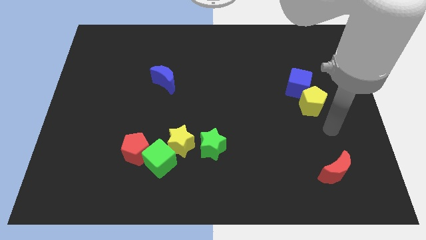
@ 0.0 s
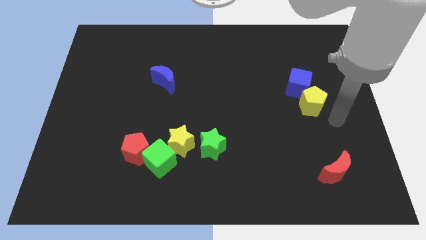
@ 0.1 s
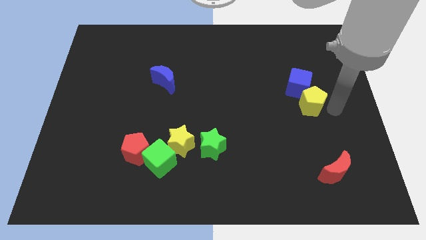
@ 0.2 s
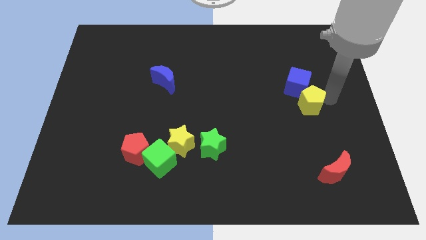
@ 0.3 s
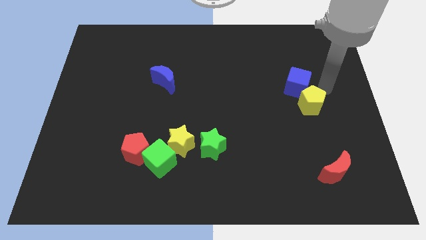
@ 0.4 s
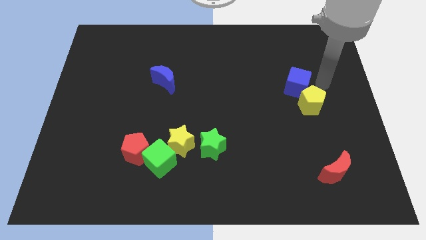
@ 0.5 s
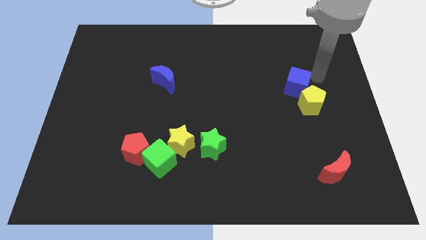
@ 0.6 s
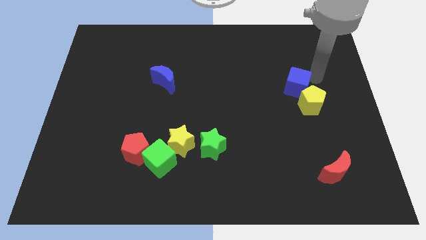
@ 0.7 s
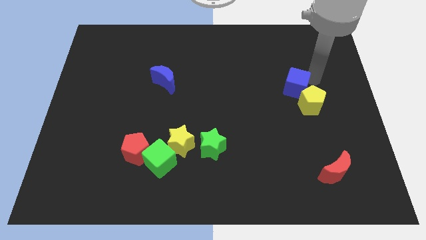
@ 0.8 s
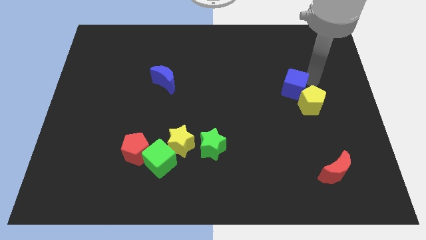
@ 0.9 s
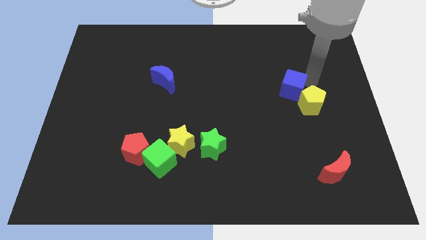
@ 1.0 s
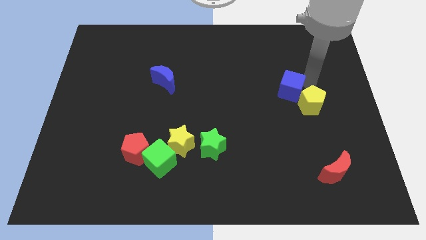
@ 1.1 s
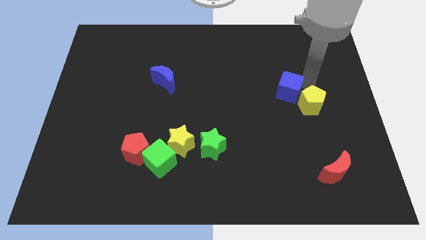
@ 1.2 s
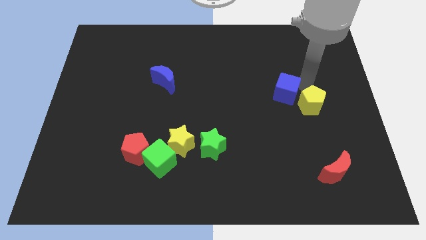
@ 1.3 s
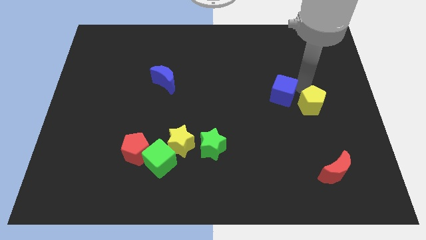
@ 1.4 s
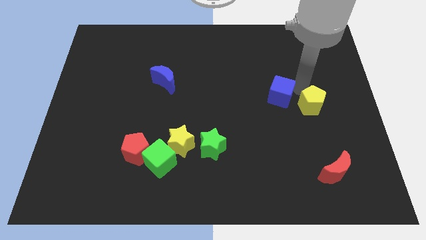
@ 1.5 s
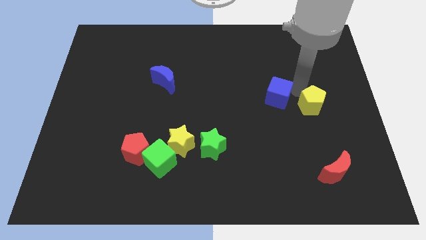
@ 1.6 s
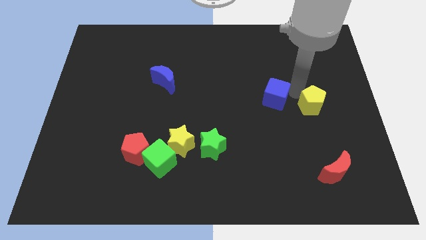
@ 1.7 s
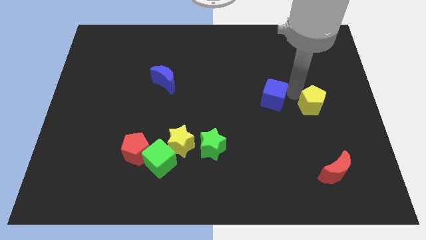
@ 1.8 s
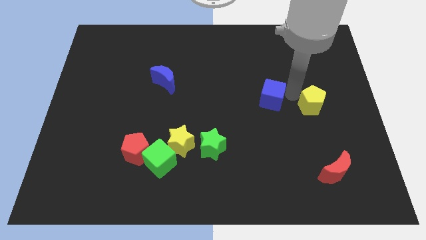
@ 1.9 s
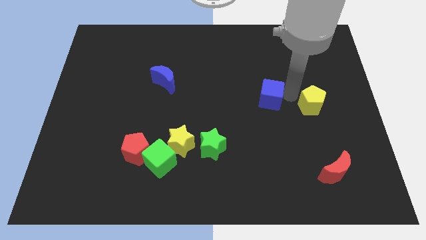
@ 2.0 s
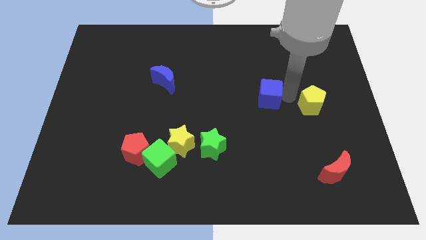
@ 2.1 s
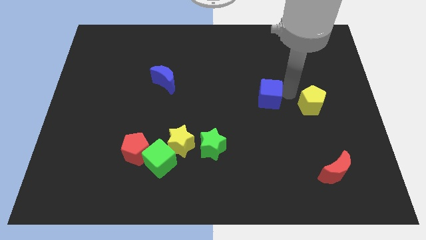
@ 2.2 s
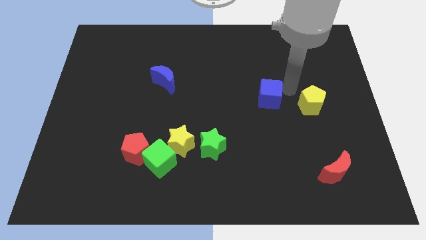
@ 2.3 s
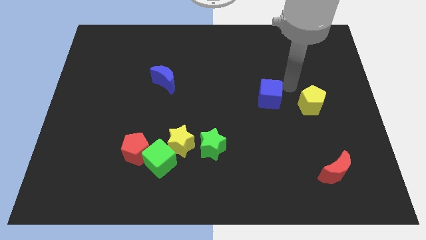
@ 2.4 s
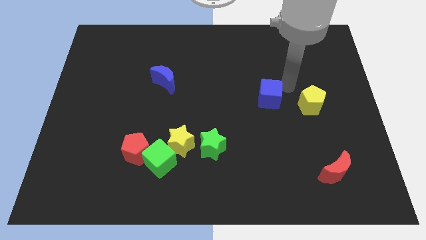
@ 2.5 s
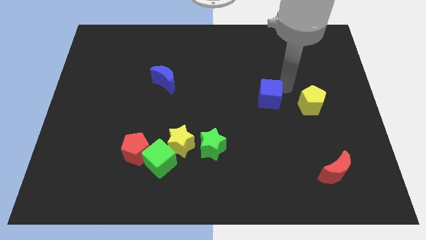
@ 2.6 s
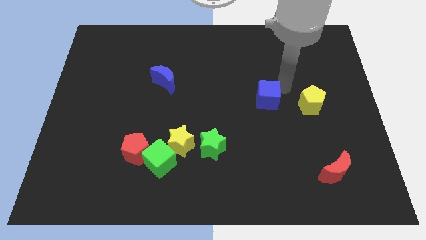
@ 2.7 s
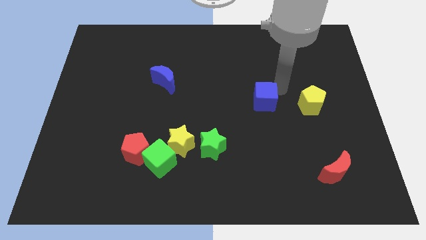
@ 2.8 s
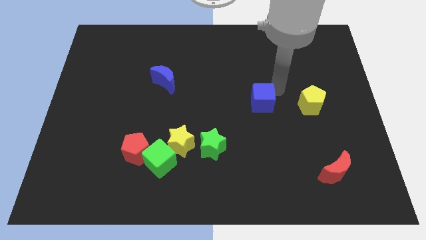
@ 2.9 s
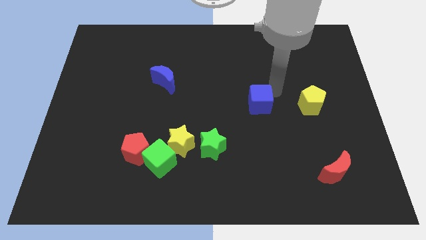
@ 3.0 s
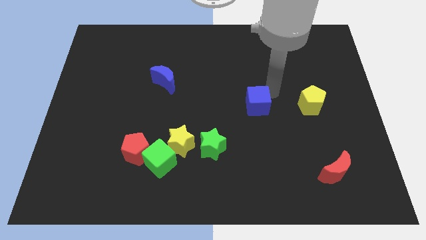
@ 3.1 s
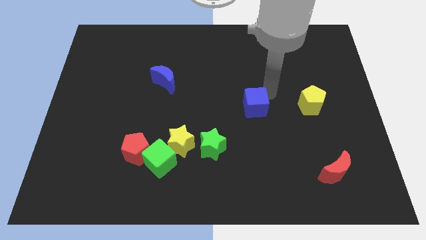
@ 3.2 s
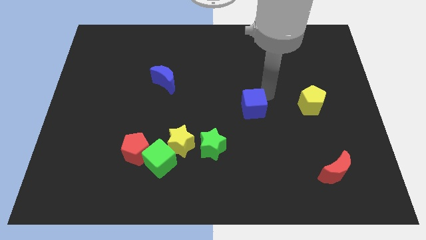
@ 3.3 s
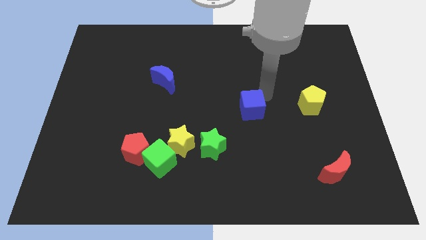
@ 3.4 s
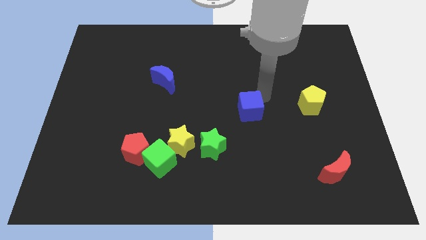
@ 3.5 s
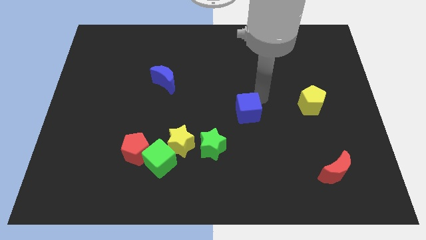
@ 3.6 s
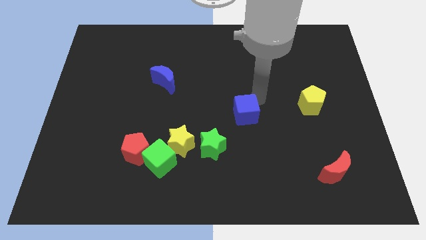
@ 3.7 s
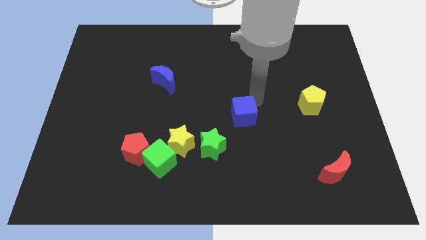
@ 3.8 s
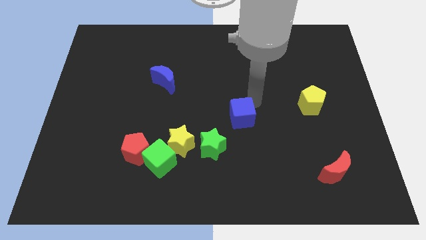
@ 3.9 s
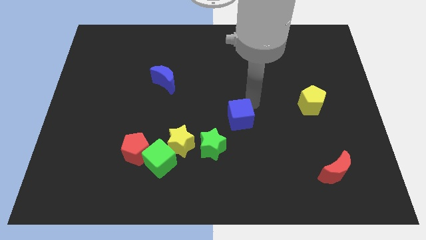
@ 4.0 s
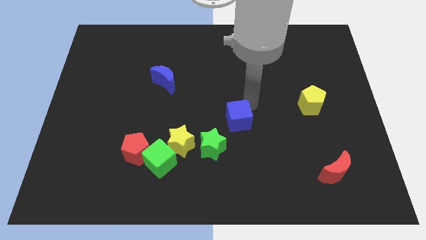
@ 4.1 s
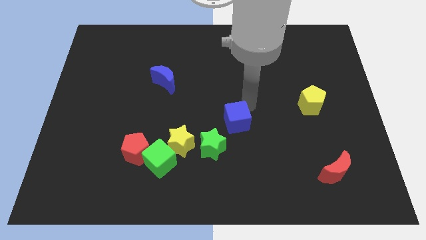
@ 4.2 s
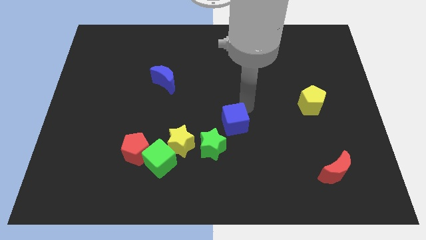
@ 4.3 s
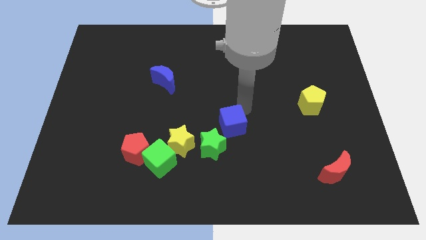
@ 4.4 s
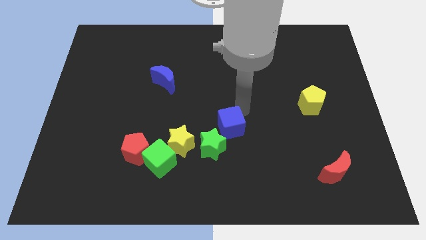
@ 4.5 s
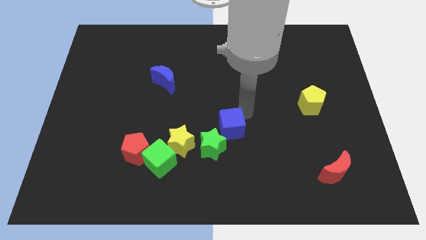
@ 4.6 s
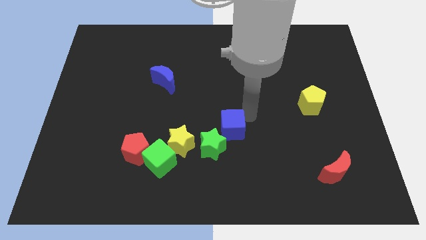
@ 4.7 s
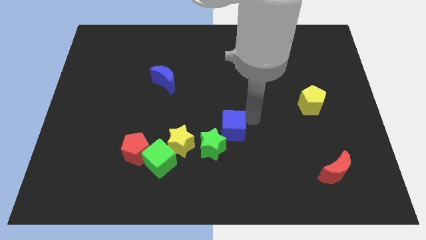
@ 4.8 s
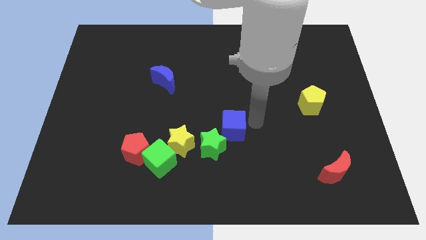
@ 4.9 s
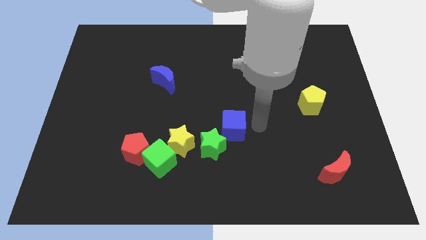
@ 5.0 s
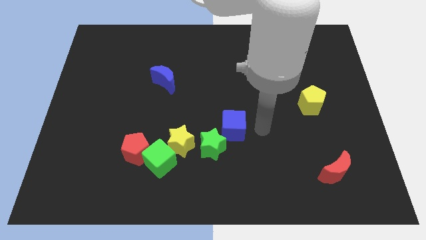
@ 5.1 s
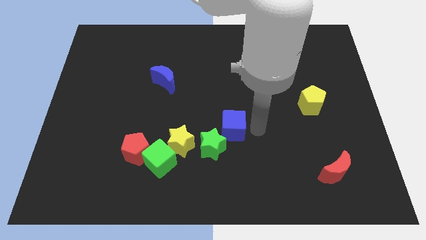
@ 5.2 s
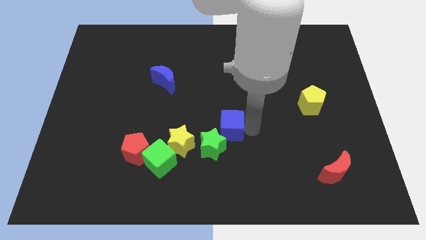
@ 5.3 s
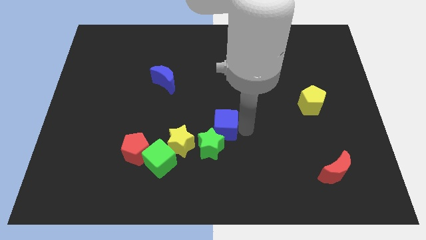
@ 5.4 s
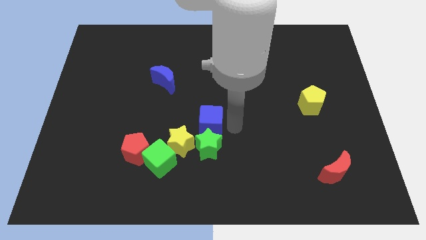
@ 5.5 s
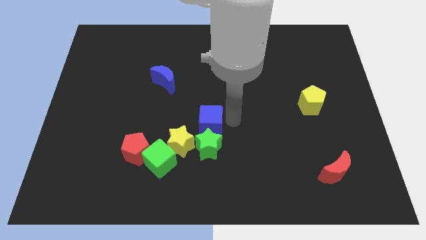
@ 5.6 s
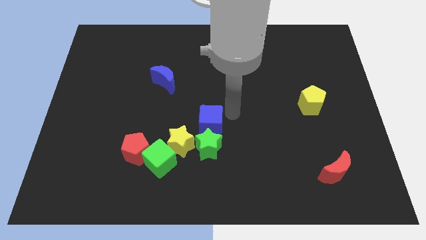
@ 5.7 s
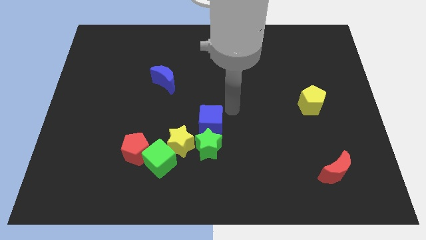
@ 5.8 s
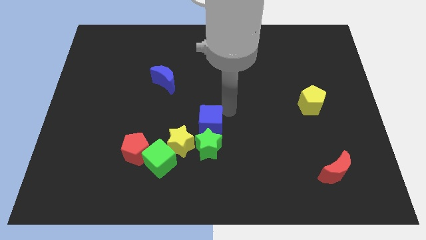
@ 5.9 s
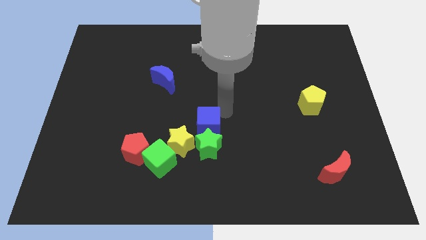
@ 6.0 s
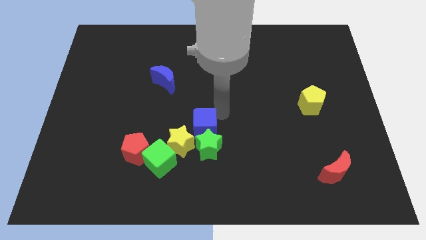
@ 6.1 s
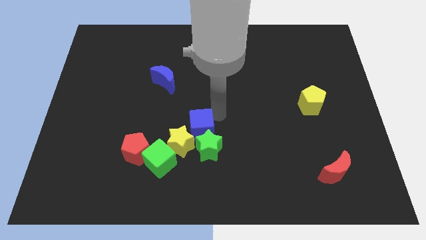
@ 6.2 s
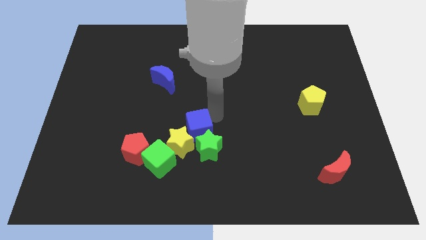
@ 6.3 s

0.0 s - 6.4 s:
move the blue cube towards the yellow star

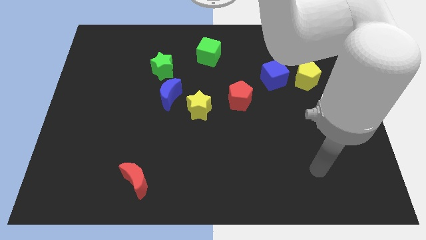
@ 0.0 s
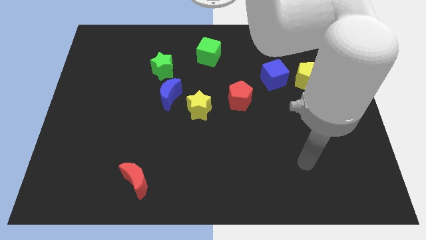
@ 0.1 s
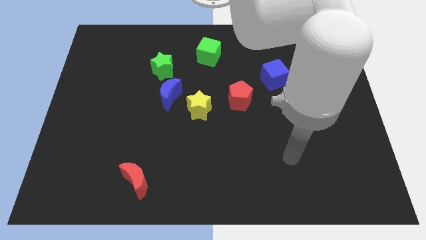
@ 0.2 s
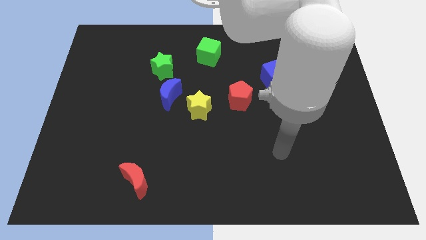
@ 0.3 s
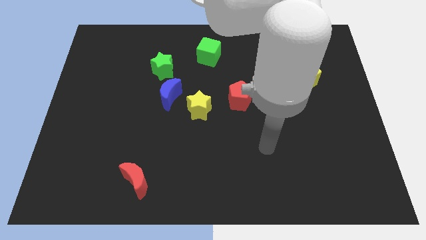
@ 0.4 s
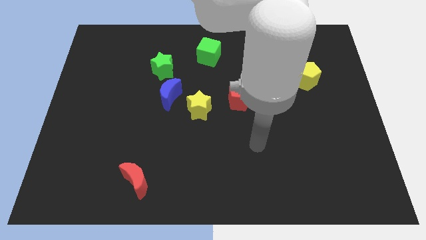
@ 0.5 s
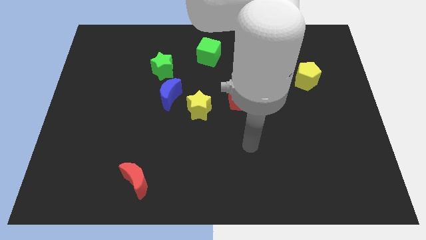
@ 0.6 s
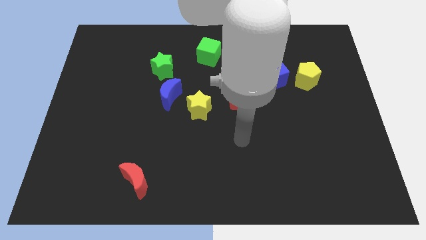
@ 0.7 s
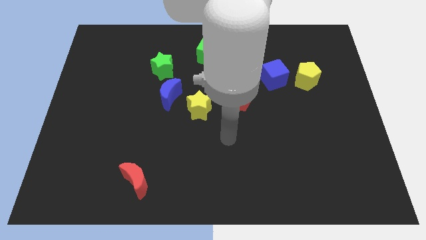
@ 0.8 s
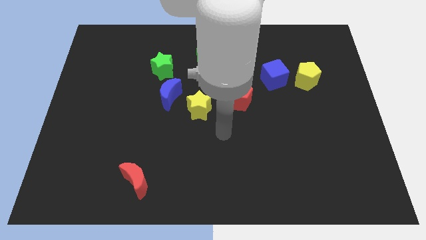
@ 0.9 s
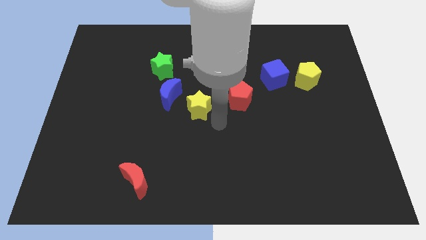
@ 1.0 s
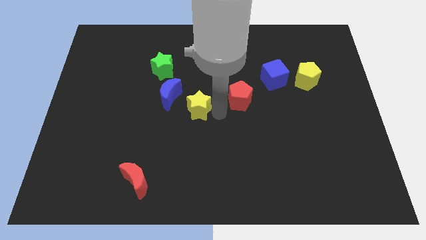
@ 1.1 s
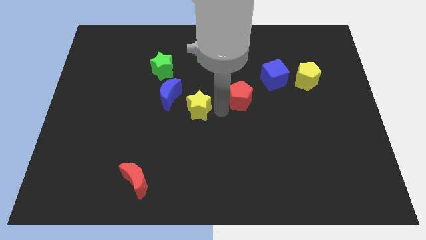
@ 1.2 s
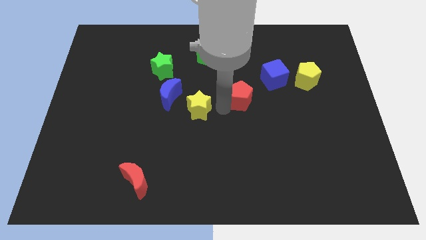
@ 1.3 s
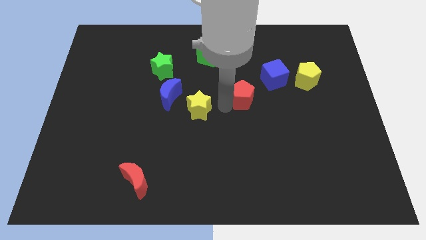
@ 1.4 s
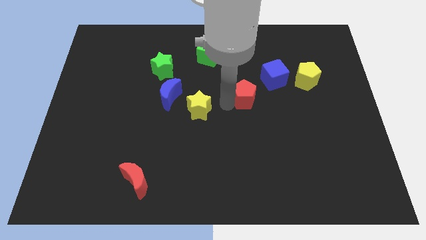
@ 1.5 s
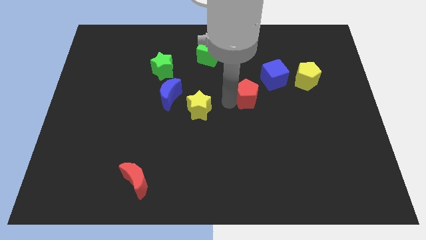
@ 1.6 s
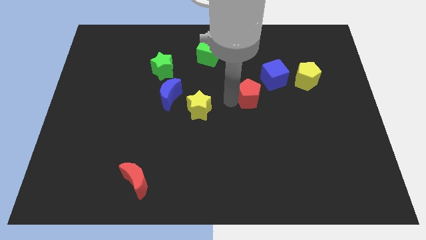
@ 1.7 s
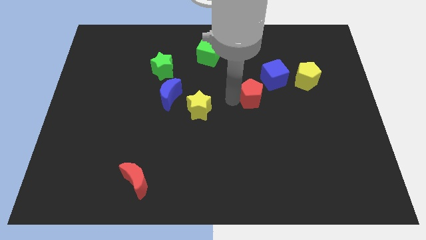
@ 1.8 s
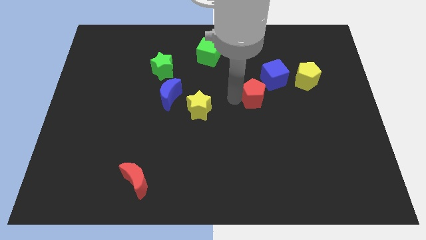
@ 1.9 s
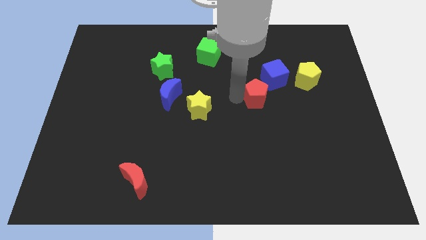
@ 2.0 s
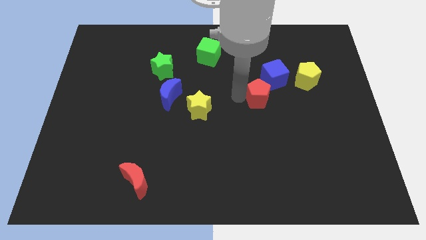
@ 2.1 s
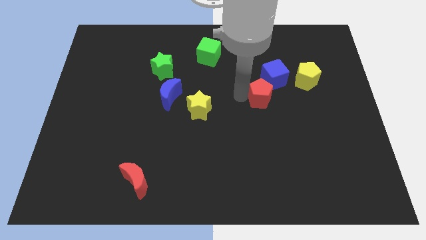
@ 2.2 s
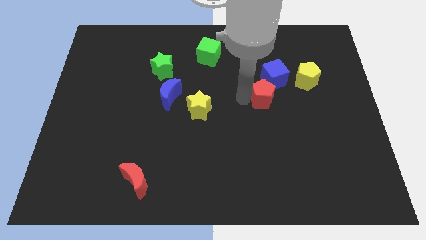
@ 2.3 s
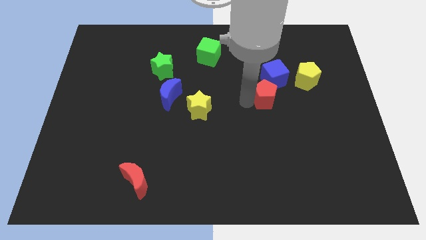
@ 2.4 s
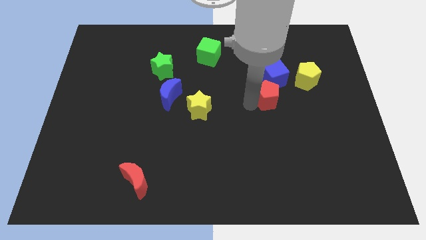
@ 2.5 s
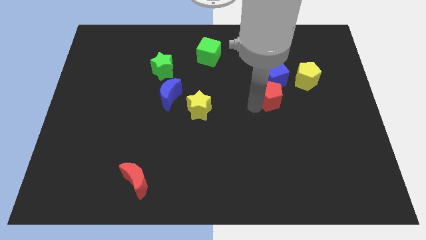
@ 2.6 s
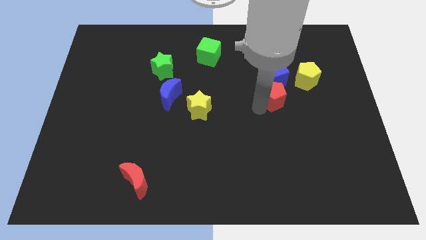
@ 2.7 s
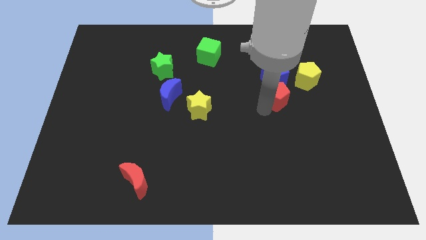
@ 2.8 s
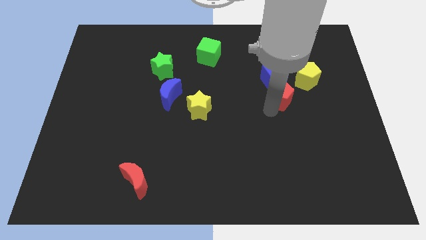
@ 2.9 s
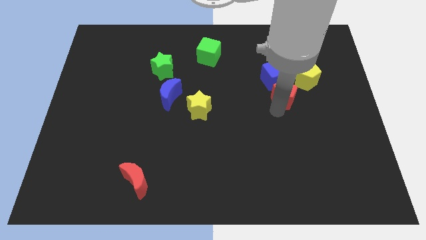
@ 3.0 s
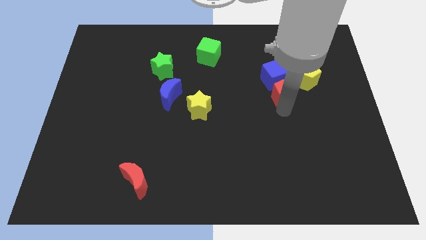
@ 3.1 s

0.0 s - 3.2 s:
slide the red pentagon close to the blue cube
